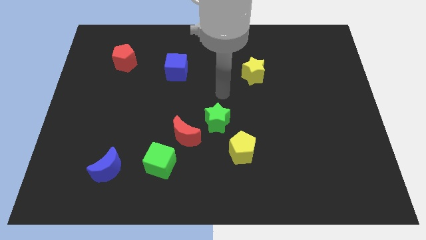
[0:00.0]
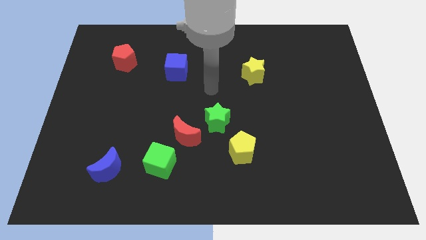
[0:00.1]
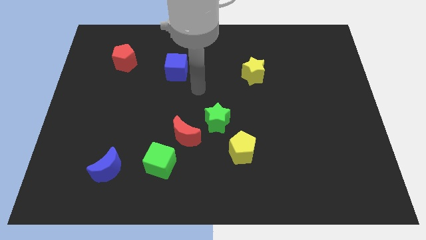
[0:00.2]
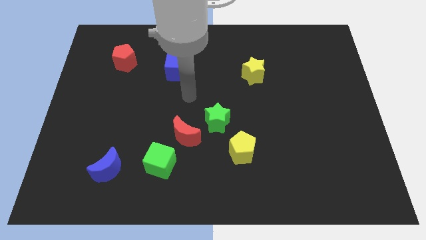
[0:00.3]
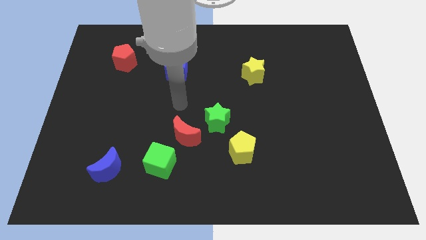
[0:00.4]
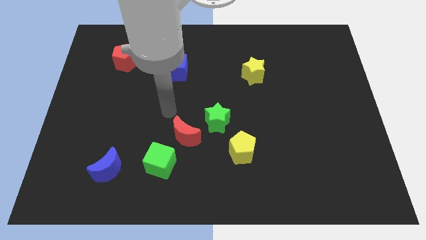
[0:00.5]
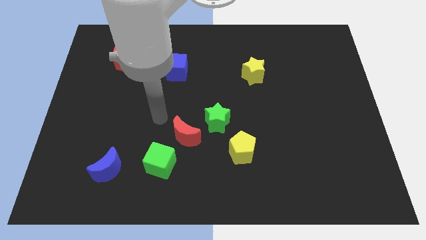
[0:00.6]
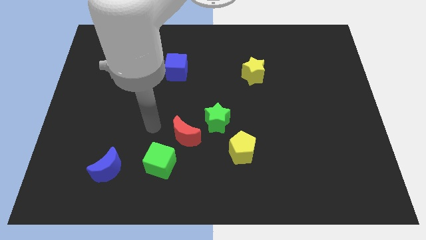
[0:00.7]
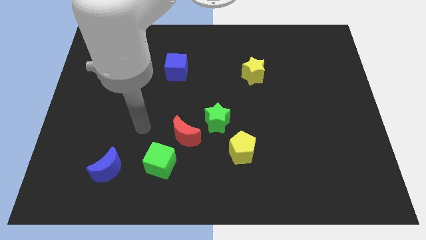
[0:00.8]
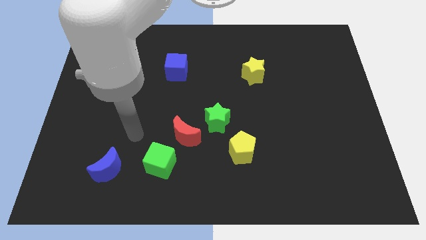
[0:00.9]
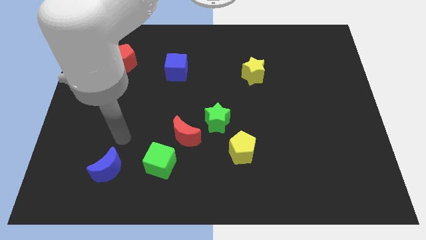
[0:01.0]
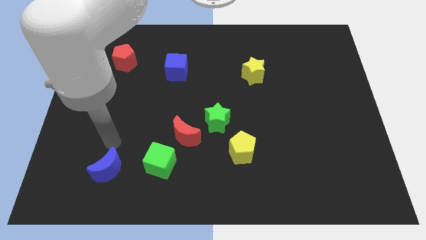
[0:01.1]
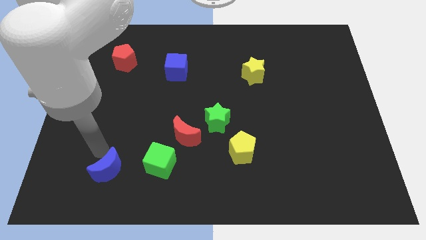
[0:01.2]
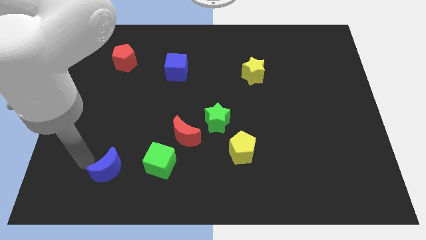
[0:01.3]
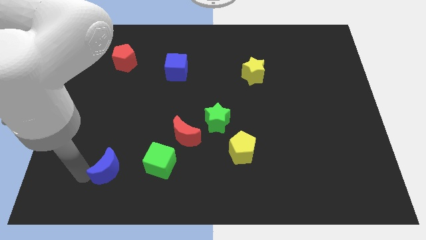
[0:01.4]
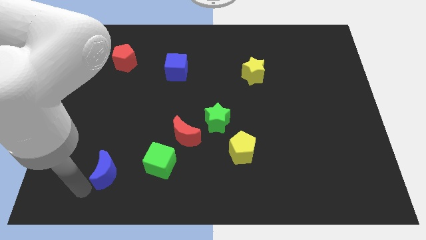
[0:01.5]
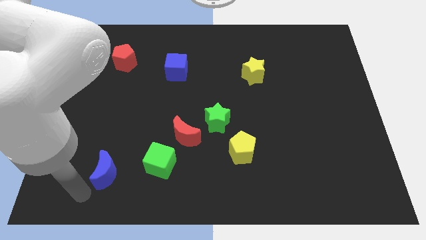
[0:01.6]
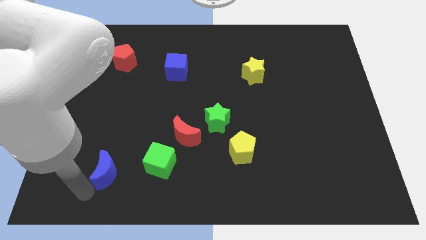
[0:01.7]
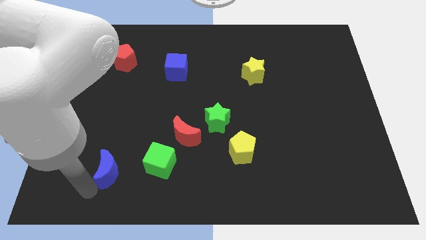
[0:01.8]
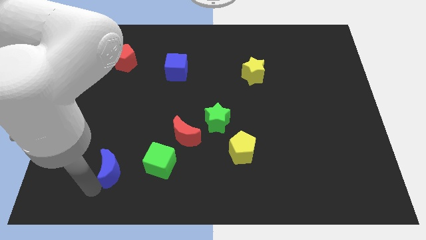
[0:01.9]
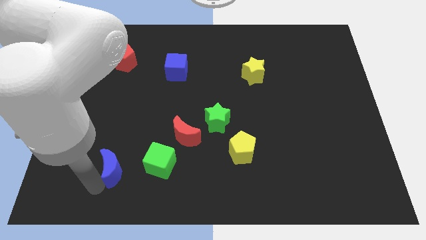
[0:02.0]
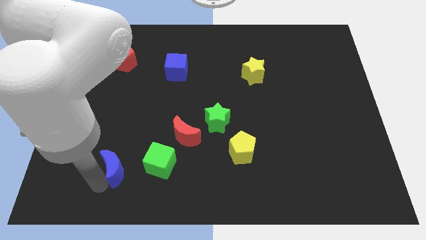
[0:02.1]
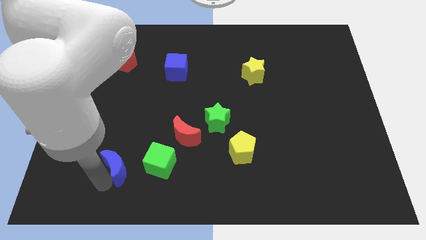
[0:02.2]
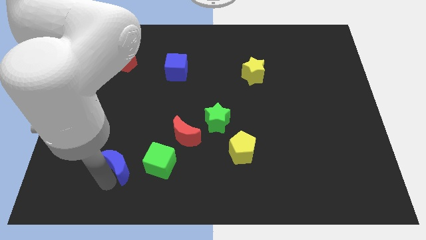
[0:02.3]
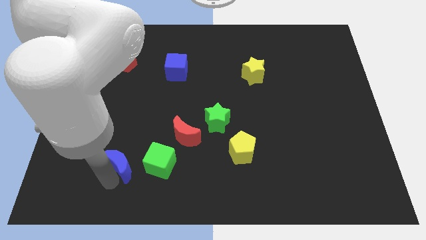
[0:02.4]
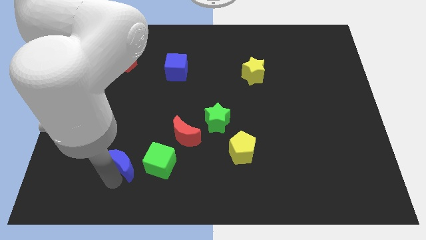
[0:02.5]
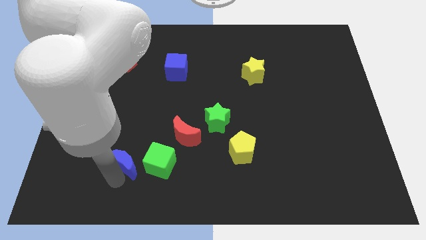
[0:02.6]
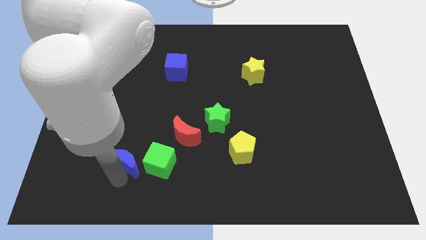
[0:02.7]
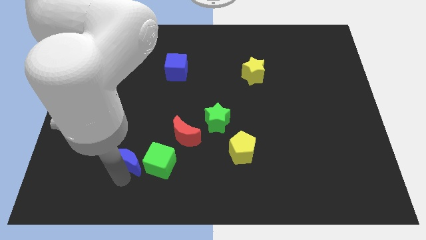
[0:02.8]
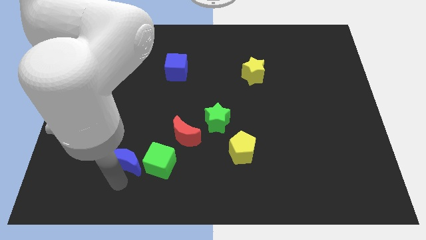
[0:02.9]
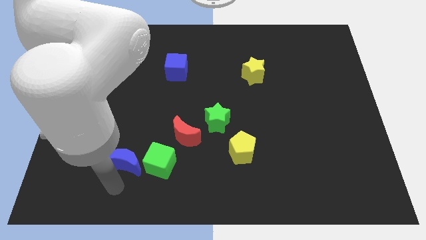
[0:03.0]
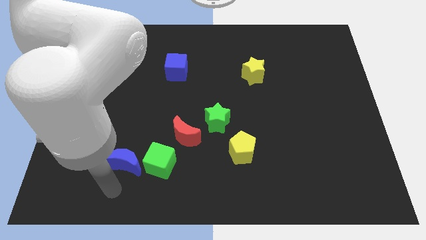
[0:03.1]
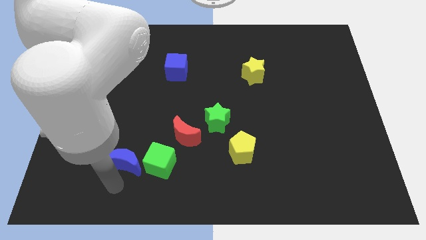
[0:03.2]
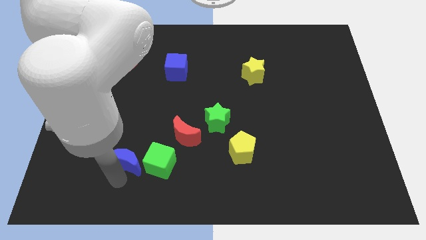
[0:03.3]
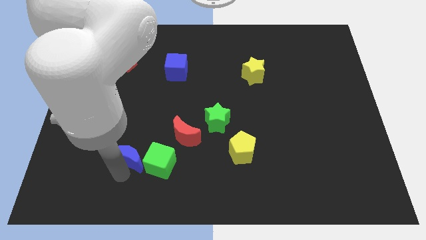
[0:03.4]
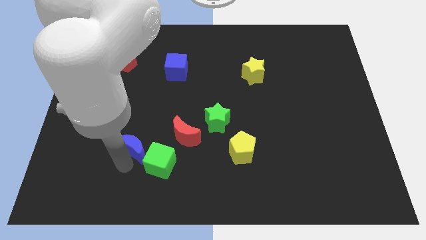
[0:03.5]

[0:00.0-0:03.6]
push the blue moon a bit upwards and then right

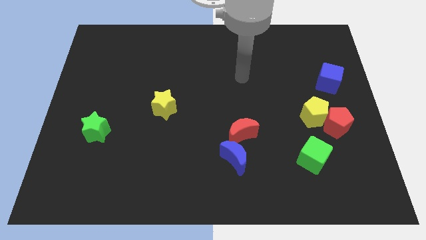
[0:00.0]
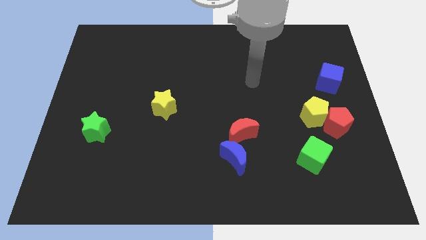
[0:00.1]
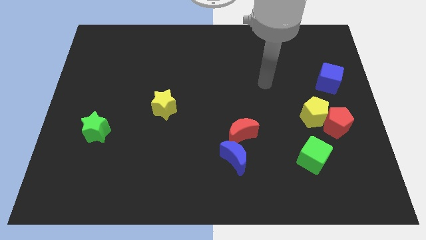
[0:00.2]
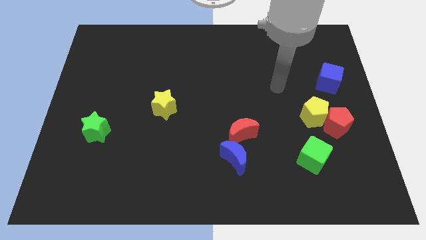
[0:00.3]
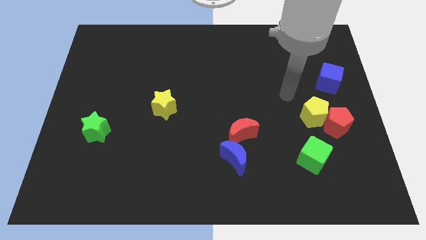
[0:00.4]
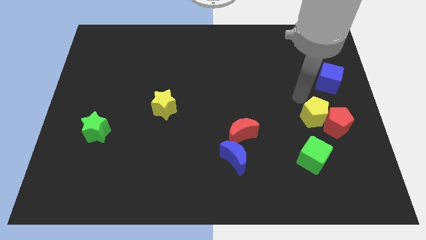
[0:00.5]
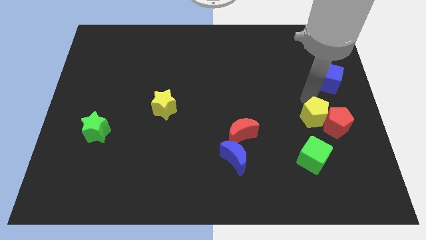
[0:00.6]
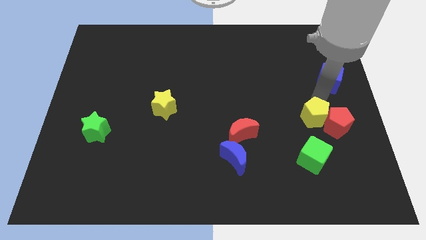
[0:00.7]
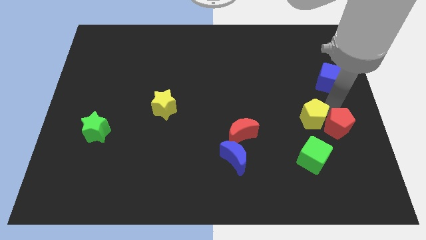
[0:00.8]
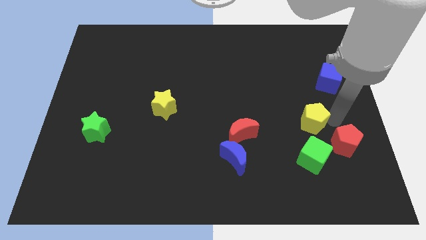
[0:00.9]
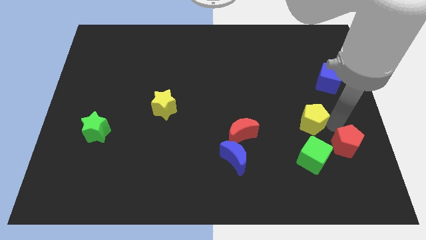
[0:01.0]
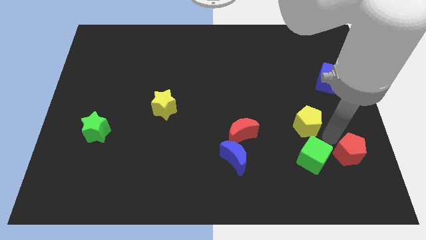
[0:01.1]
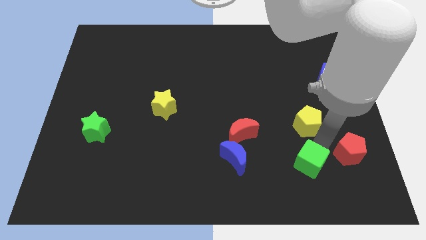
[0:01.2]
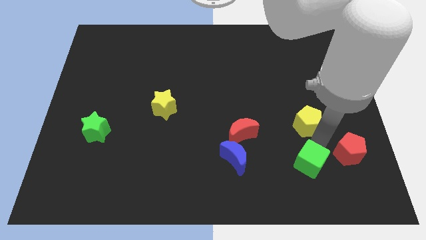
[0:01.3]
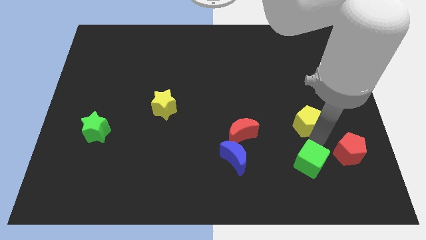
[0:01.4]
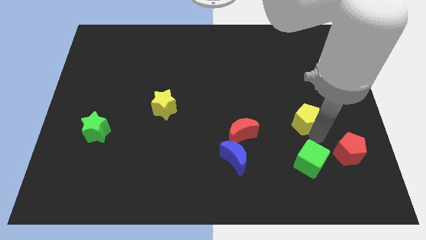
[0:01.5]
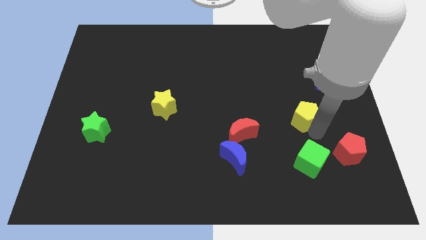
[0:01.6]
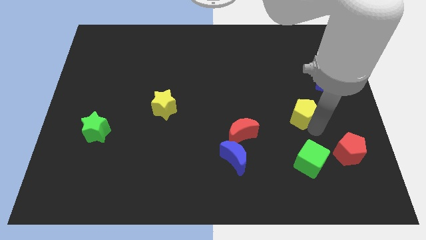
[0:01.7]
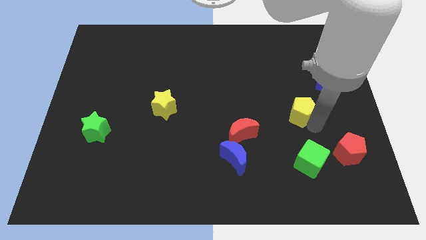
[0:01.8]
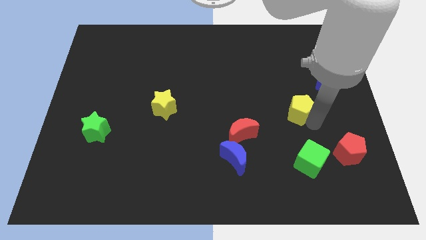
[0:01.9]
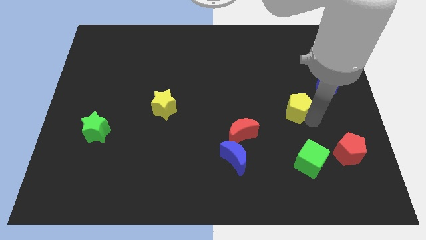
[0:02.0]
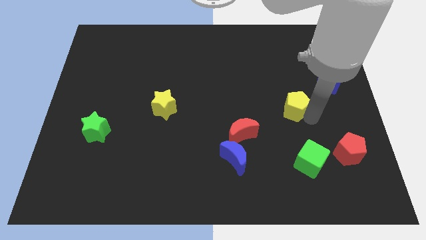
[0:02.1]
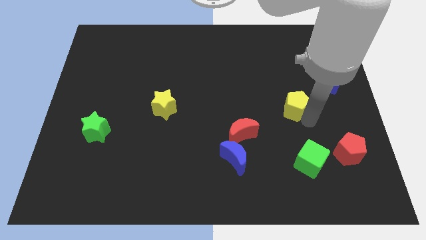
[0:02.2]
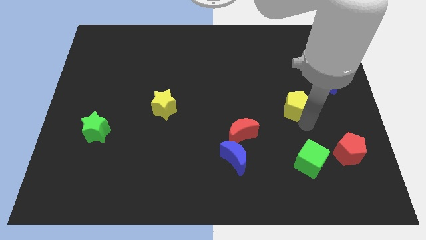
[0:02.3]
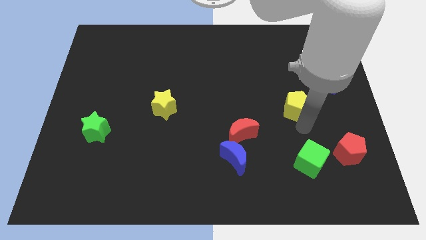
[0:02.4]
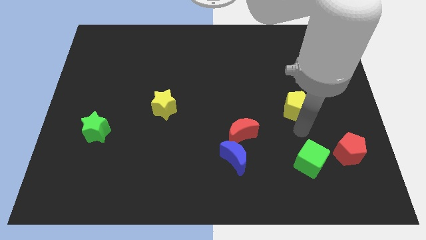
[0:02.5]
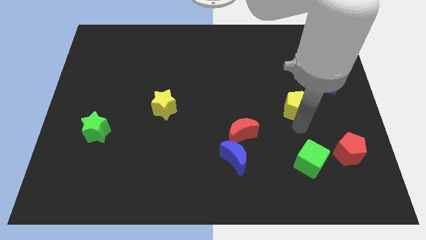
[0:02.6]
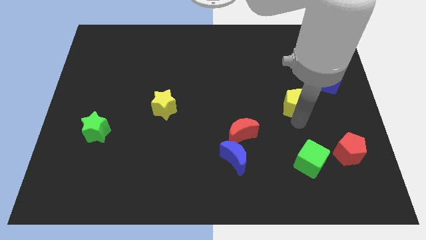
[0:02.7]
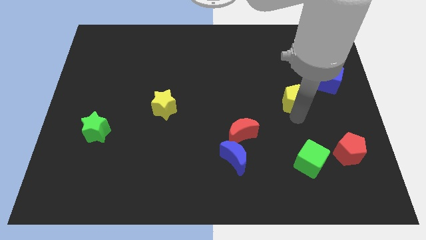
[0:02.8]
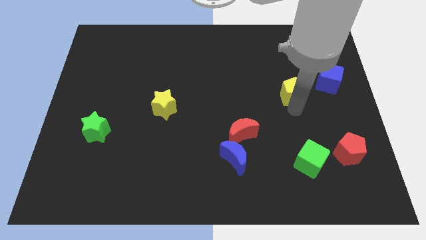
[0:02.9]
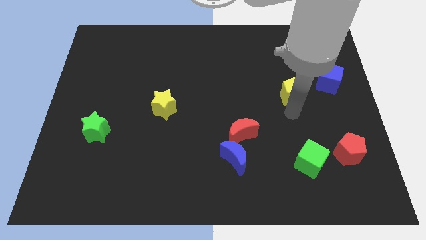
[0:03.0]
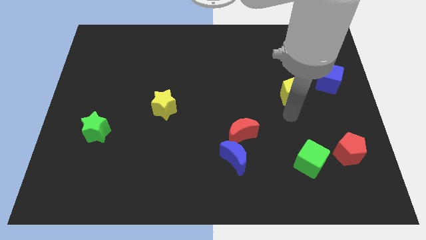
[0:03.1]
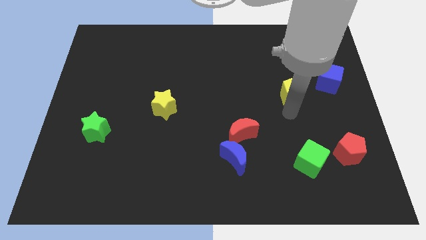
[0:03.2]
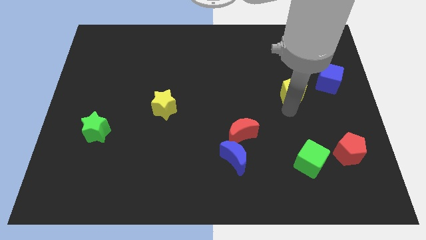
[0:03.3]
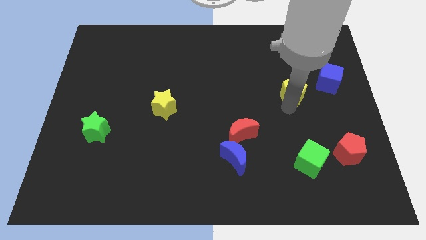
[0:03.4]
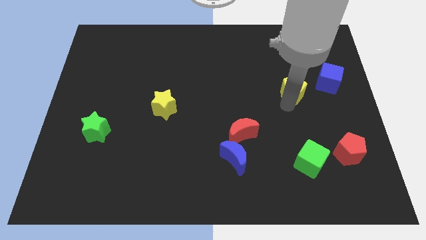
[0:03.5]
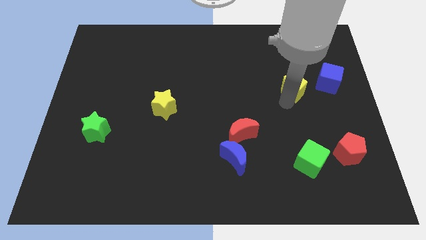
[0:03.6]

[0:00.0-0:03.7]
slide the yellow pentagon up a little bit

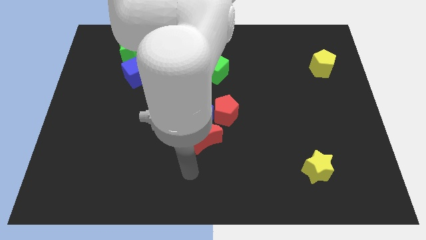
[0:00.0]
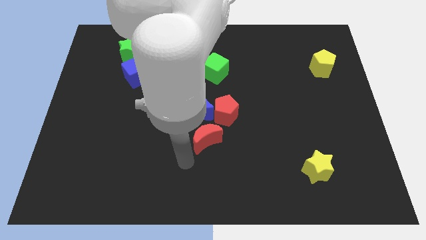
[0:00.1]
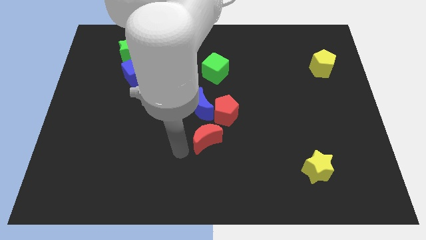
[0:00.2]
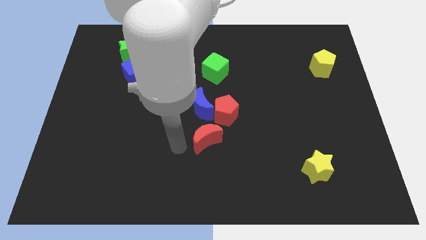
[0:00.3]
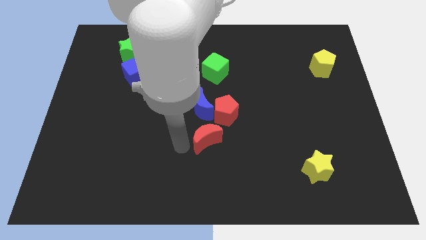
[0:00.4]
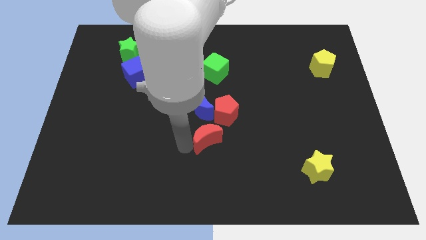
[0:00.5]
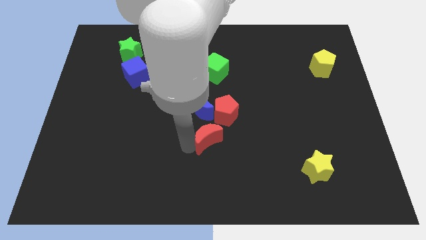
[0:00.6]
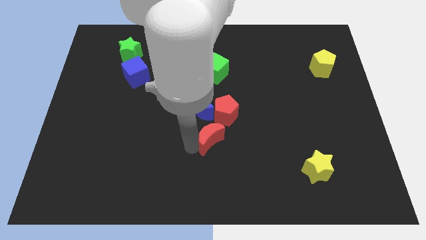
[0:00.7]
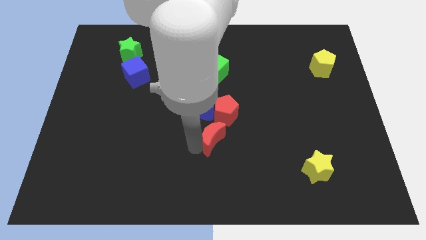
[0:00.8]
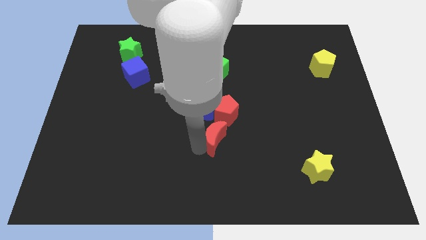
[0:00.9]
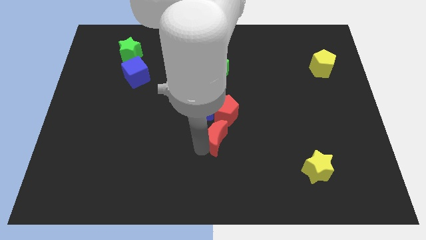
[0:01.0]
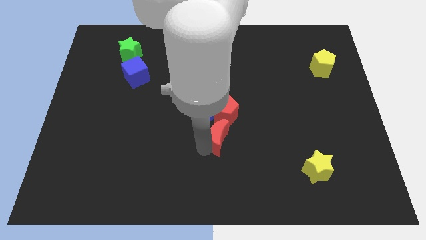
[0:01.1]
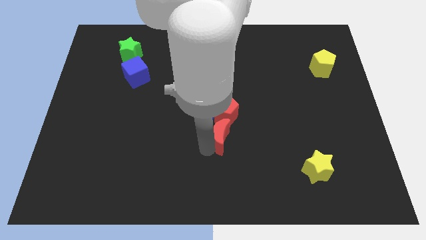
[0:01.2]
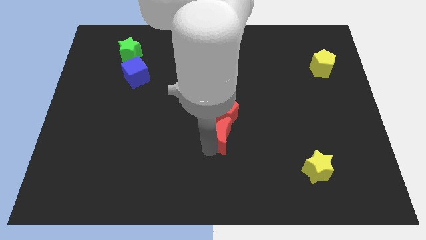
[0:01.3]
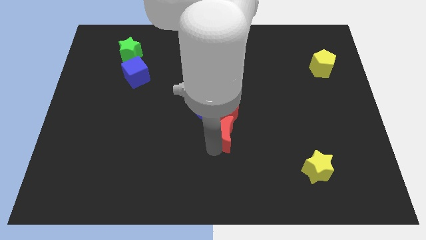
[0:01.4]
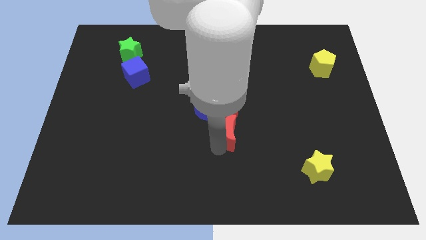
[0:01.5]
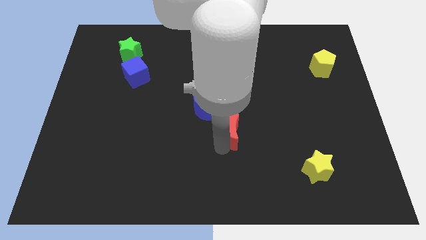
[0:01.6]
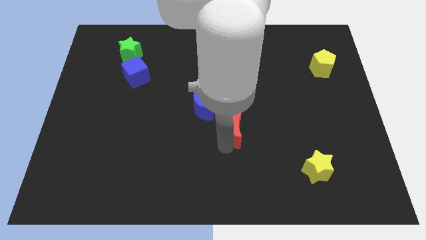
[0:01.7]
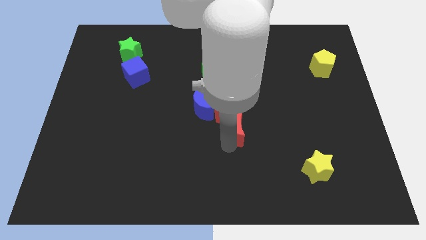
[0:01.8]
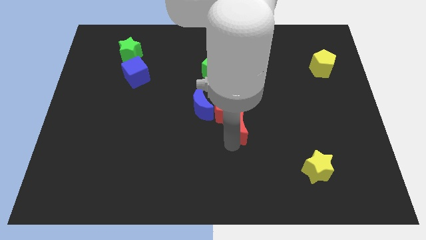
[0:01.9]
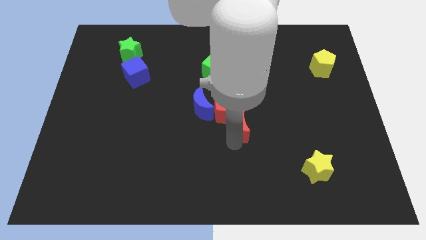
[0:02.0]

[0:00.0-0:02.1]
push the red moon somewhat upwards and to the right diagonally
